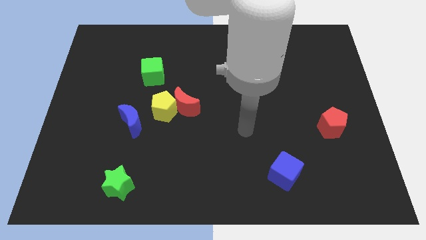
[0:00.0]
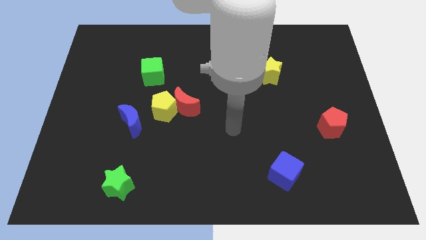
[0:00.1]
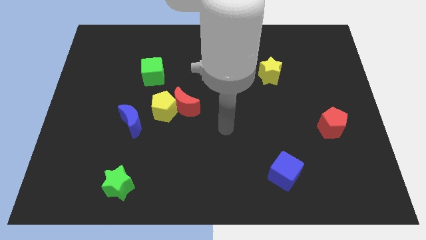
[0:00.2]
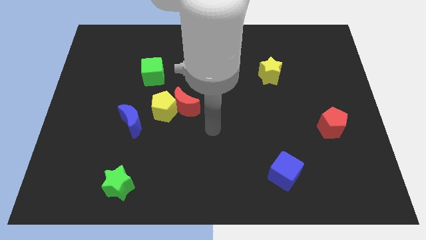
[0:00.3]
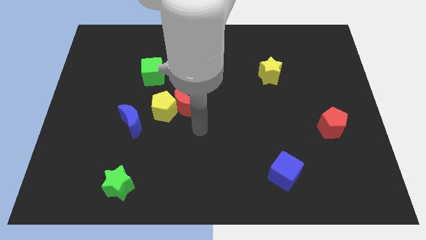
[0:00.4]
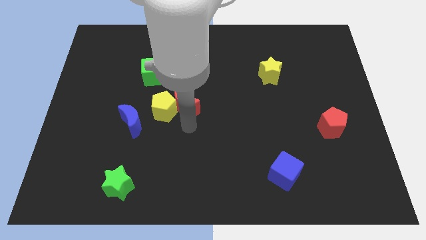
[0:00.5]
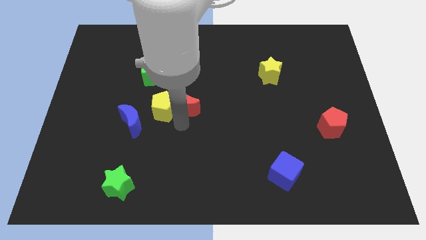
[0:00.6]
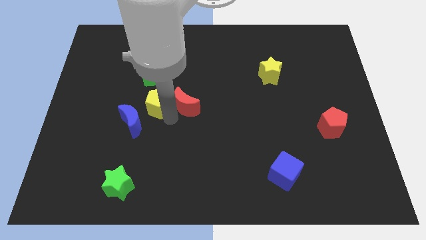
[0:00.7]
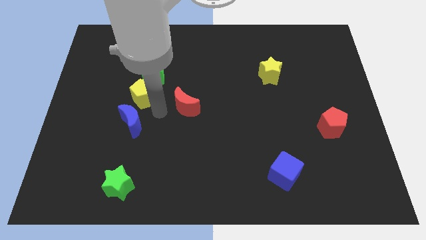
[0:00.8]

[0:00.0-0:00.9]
separate the red moon from the yellow pentagon

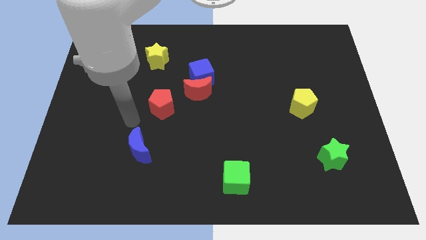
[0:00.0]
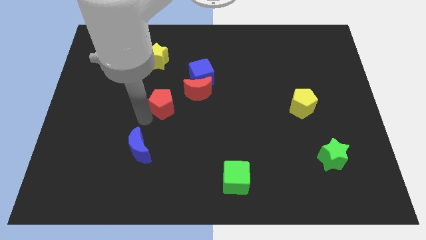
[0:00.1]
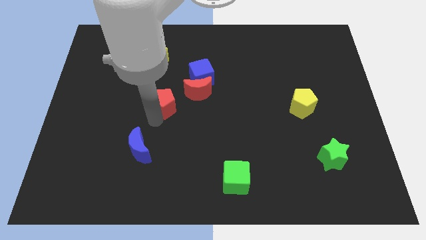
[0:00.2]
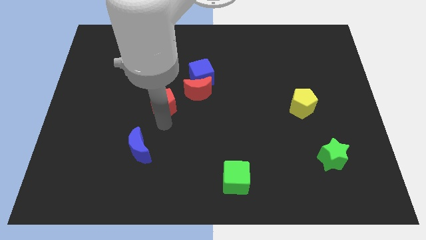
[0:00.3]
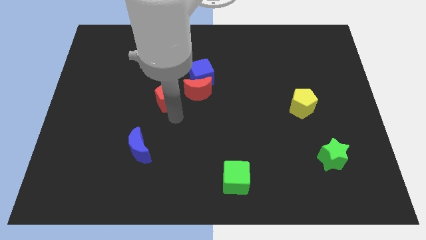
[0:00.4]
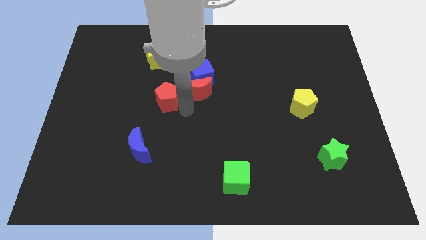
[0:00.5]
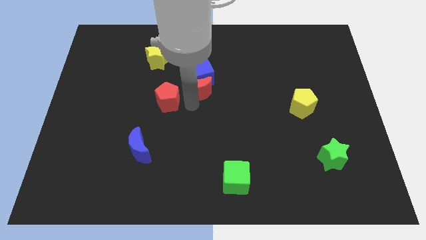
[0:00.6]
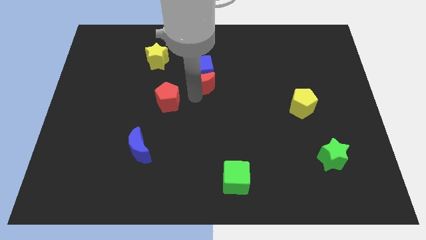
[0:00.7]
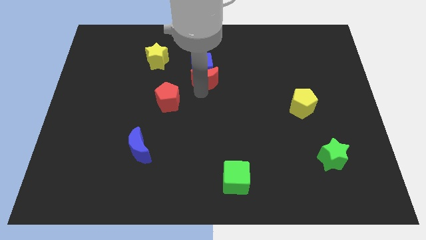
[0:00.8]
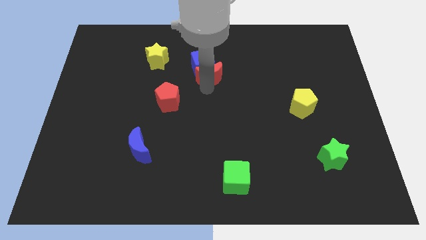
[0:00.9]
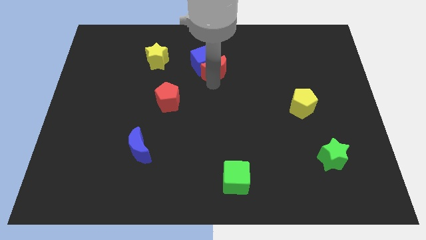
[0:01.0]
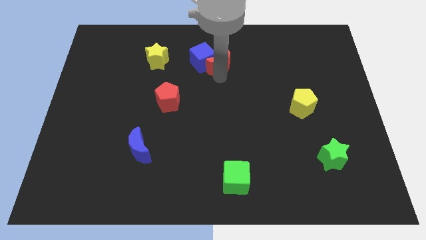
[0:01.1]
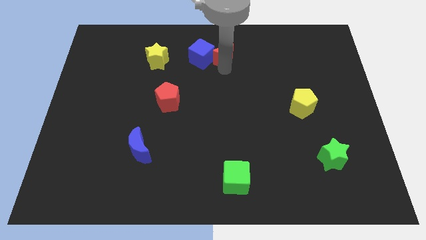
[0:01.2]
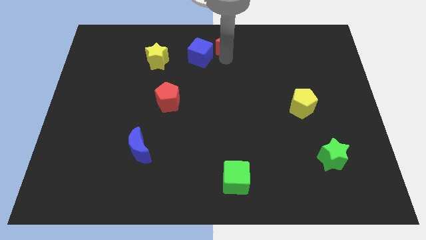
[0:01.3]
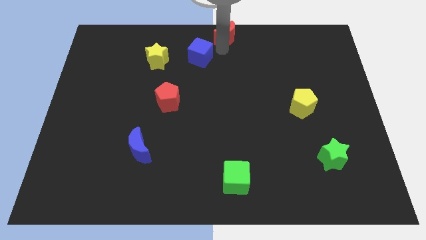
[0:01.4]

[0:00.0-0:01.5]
move the blue cube away from the red moon

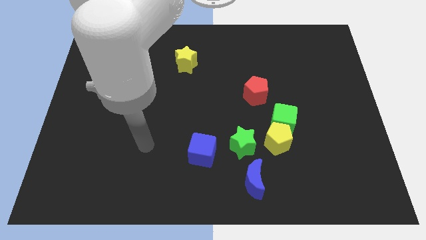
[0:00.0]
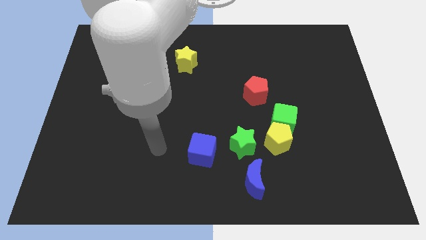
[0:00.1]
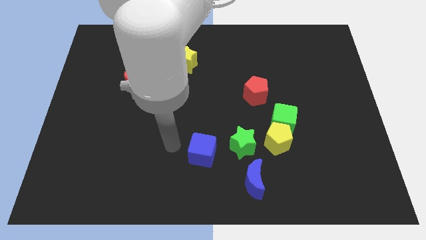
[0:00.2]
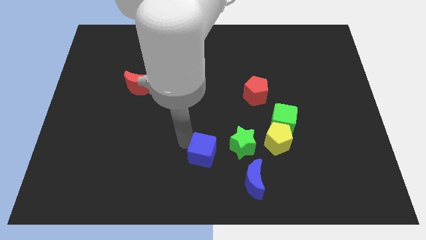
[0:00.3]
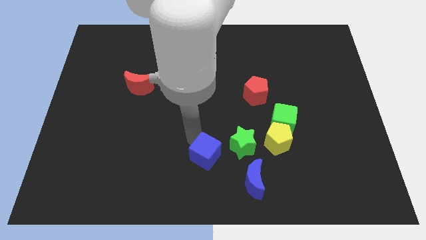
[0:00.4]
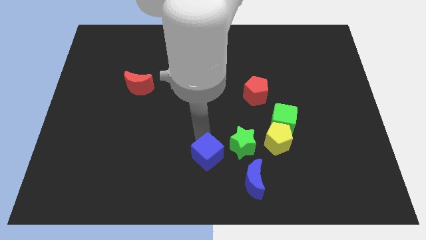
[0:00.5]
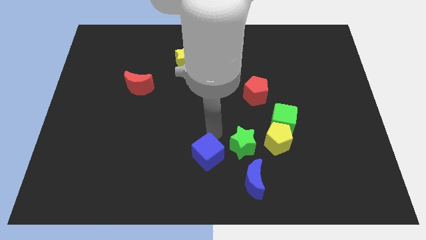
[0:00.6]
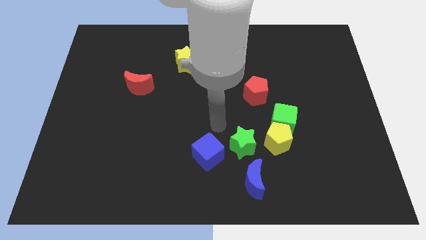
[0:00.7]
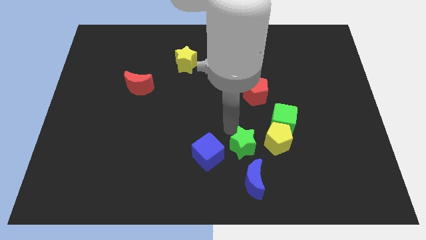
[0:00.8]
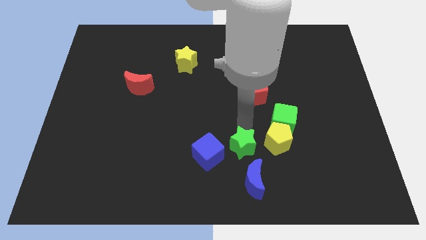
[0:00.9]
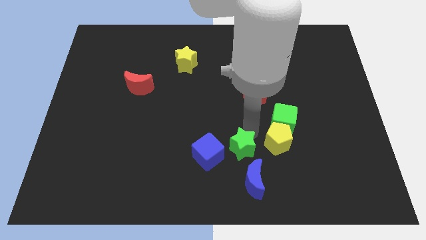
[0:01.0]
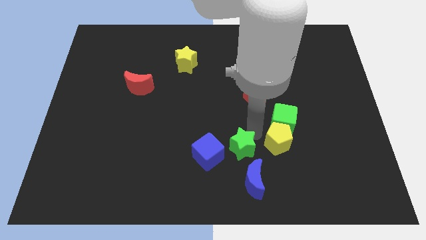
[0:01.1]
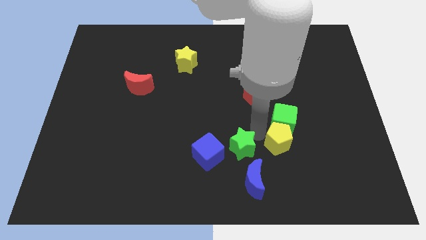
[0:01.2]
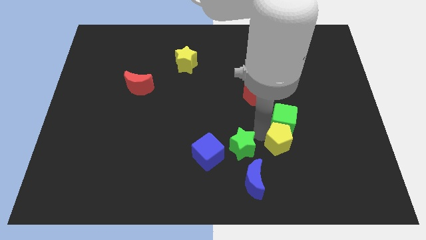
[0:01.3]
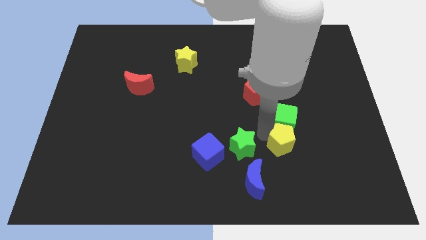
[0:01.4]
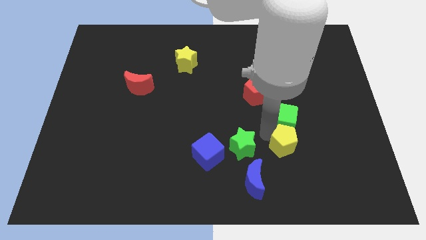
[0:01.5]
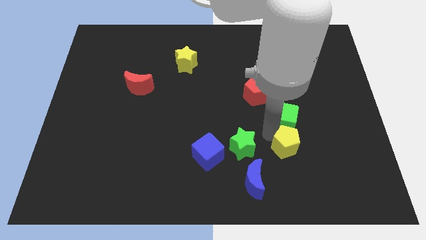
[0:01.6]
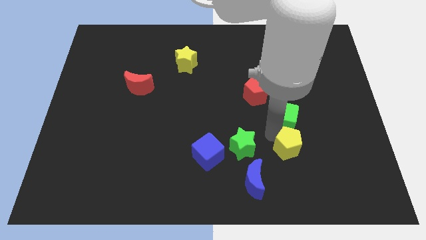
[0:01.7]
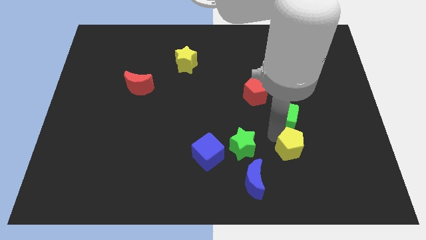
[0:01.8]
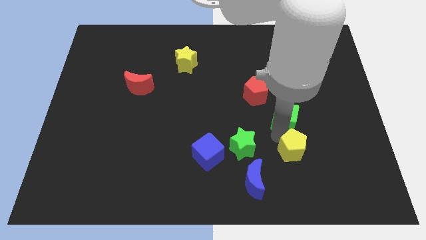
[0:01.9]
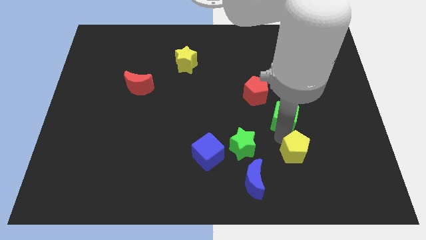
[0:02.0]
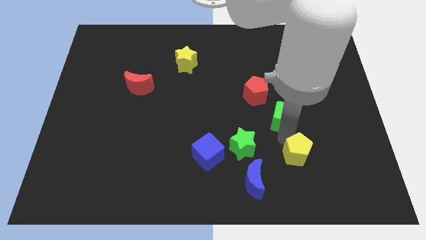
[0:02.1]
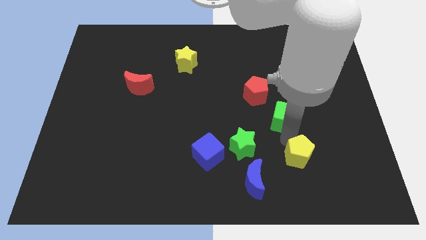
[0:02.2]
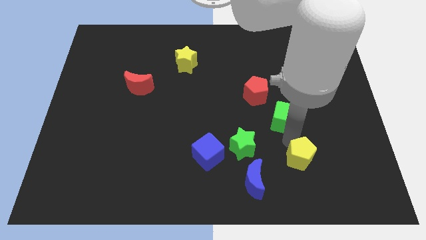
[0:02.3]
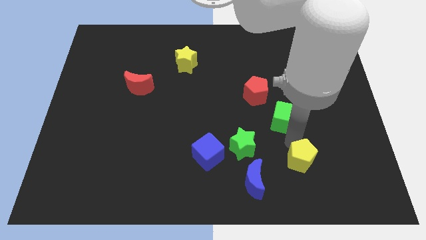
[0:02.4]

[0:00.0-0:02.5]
move the yellow pentagon away from the green cube and green star

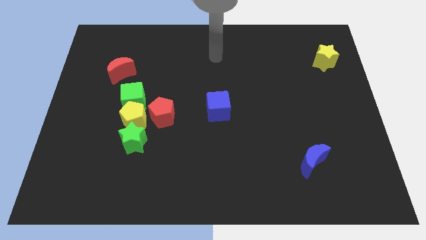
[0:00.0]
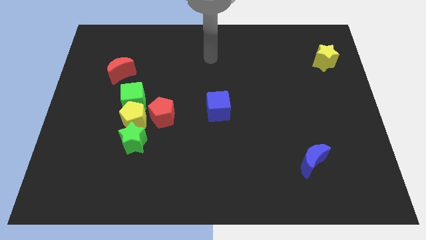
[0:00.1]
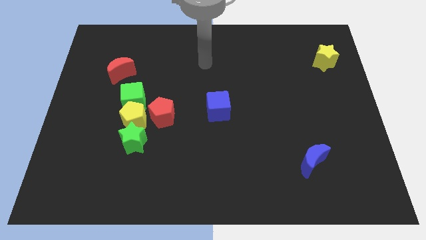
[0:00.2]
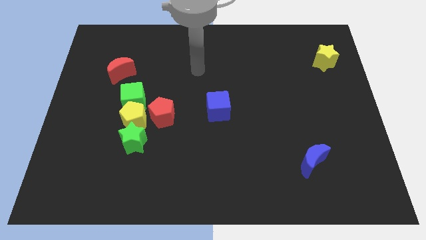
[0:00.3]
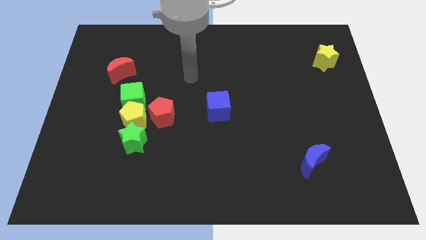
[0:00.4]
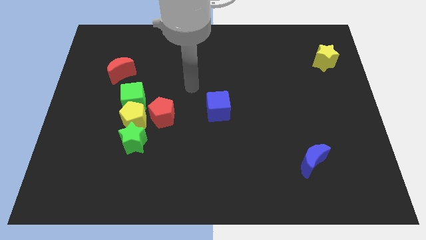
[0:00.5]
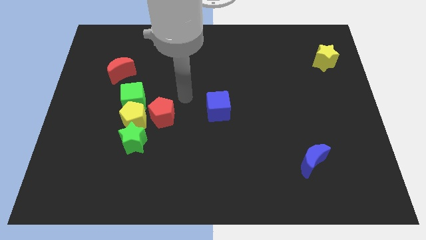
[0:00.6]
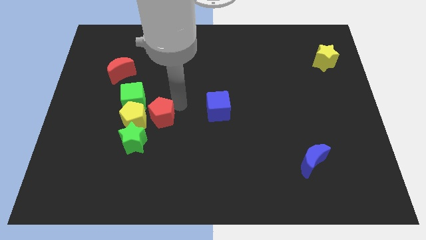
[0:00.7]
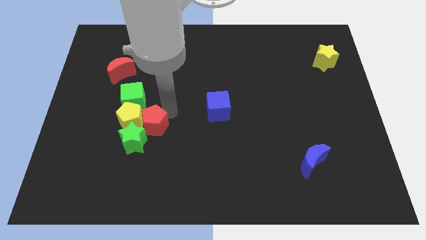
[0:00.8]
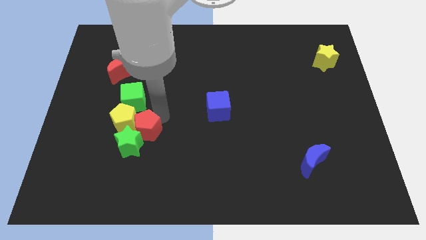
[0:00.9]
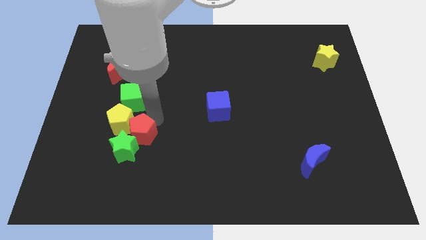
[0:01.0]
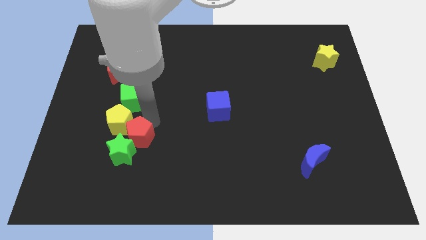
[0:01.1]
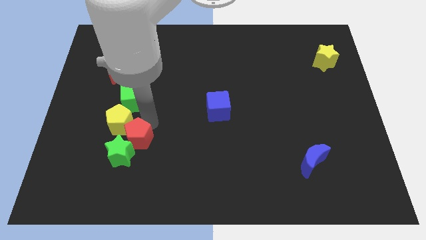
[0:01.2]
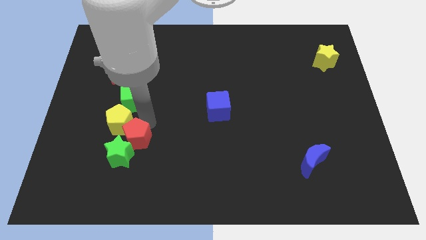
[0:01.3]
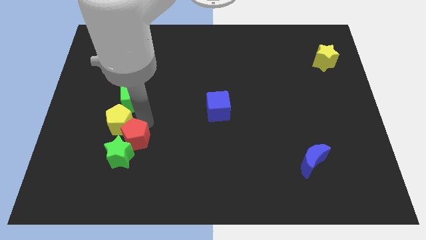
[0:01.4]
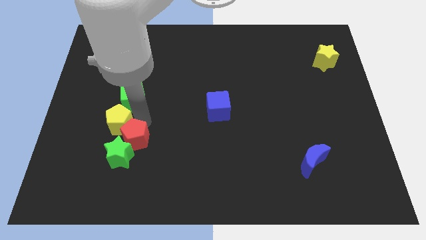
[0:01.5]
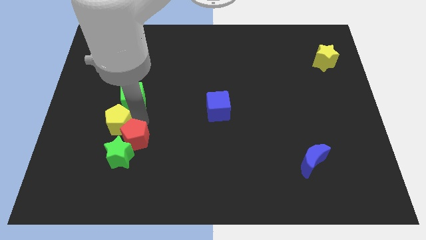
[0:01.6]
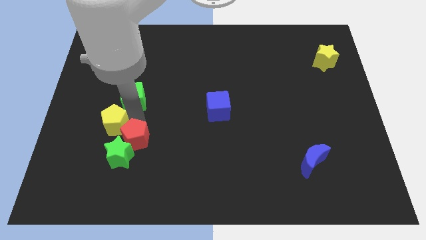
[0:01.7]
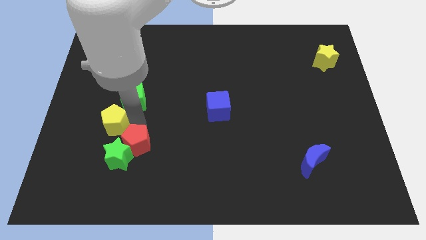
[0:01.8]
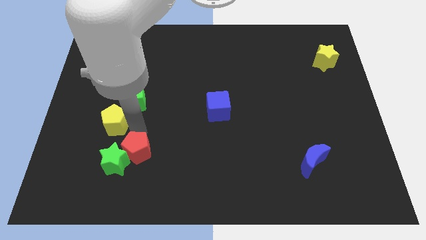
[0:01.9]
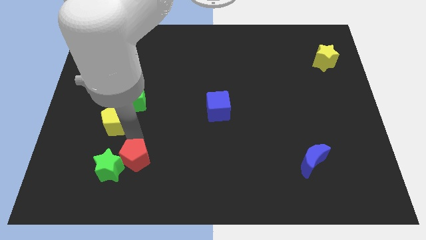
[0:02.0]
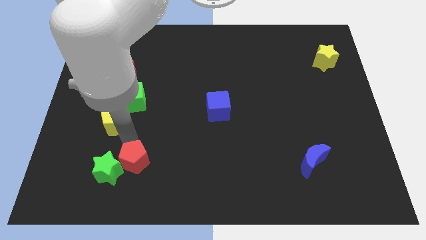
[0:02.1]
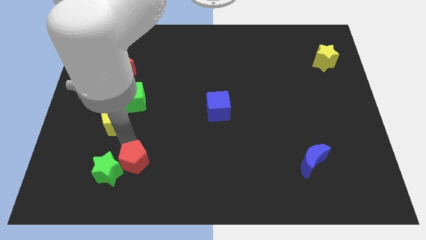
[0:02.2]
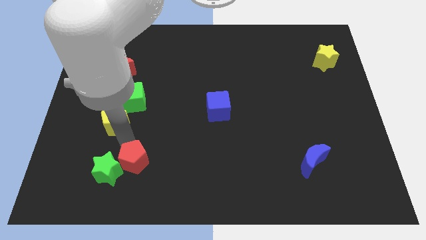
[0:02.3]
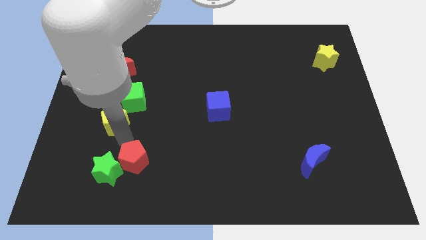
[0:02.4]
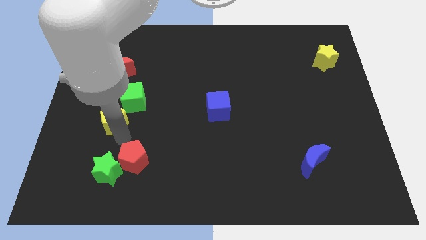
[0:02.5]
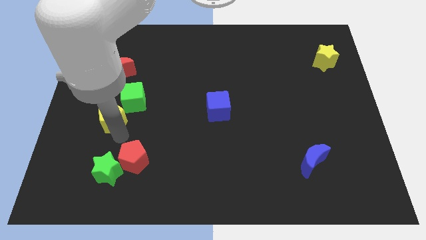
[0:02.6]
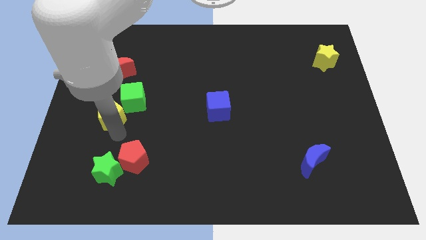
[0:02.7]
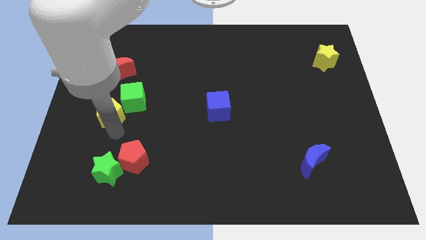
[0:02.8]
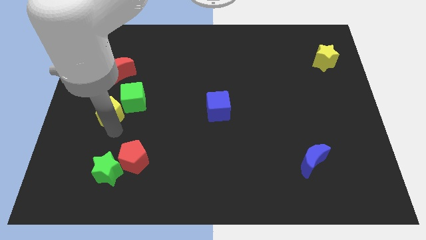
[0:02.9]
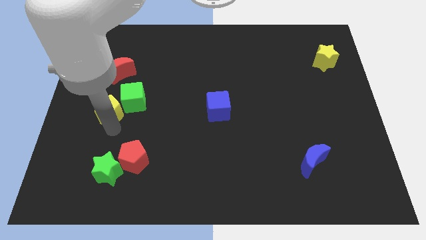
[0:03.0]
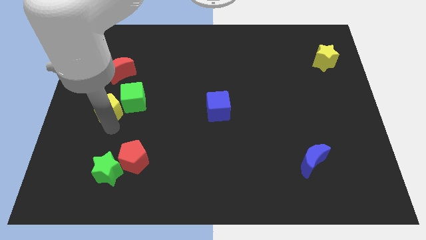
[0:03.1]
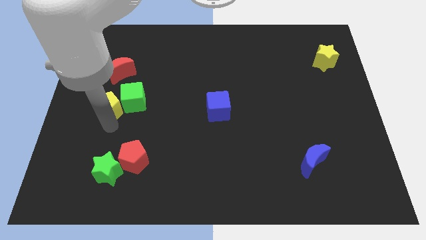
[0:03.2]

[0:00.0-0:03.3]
move the yellow pentagon away from the green cube, green star, and red pentagon

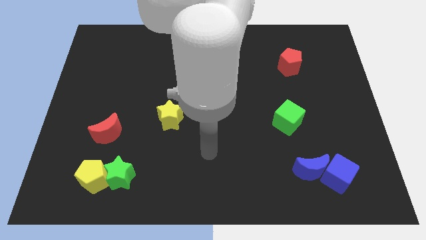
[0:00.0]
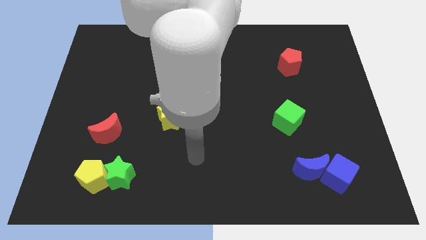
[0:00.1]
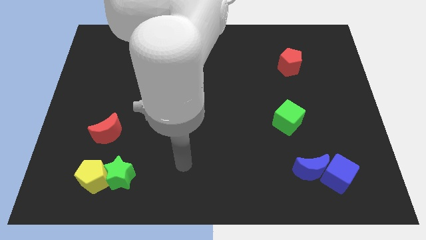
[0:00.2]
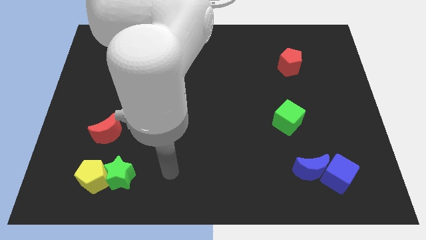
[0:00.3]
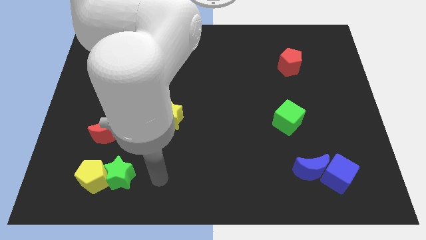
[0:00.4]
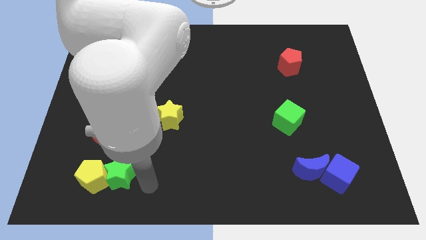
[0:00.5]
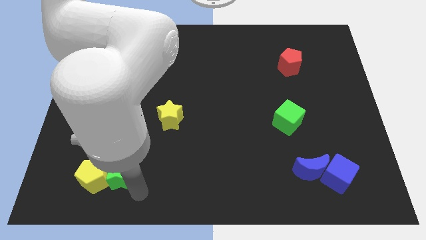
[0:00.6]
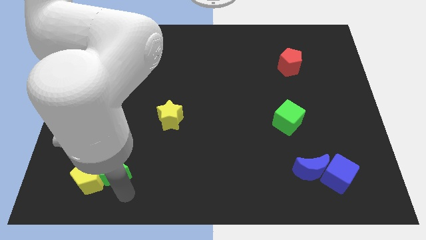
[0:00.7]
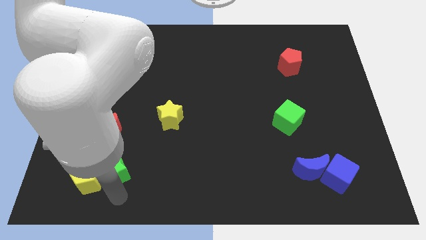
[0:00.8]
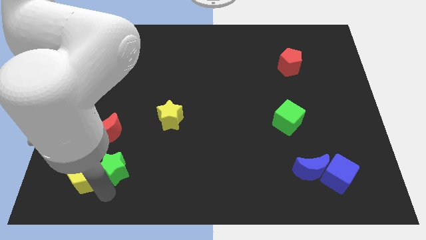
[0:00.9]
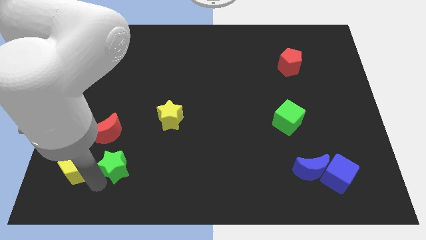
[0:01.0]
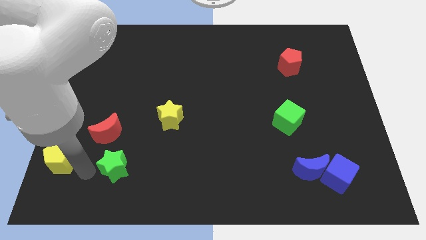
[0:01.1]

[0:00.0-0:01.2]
pull the green star apart from the yellow pentagon
